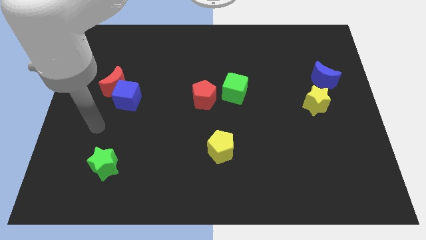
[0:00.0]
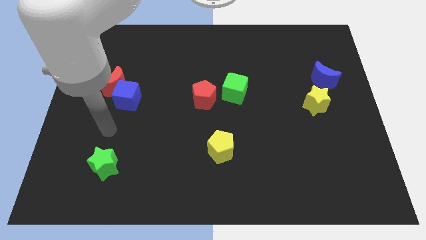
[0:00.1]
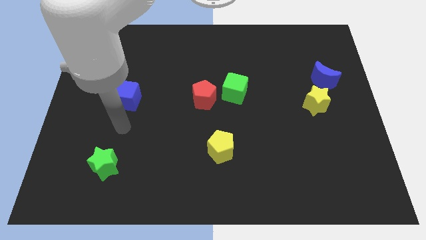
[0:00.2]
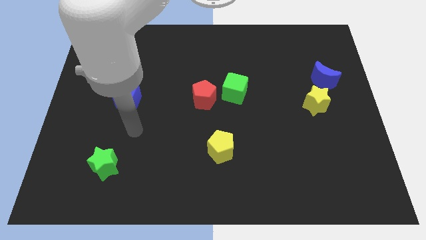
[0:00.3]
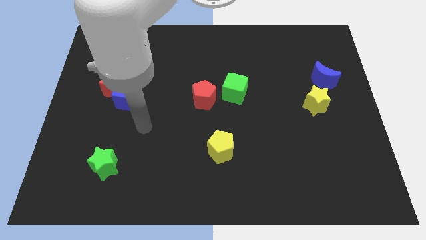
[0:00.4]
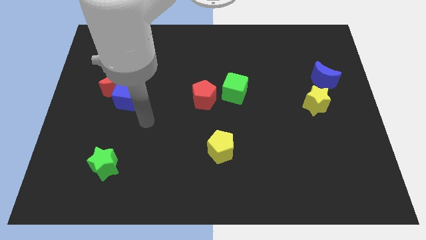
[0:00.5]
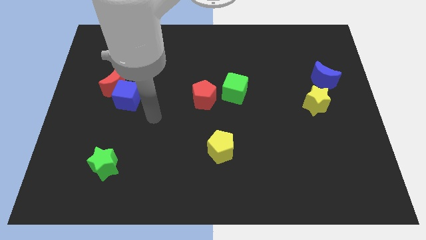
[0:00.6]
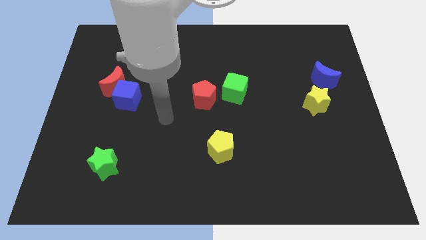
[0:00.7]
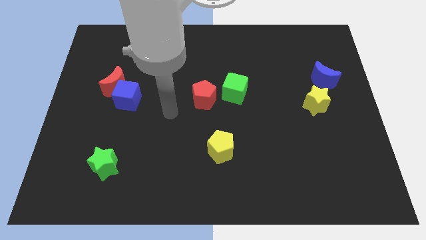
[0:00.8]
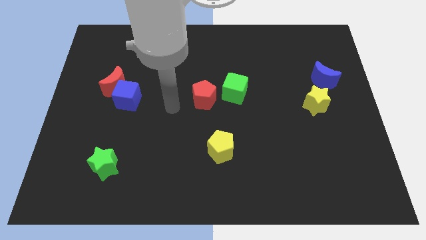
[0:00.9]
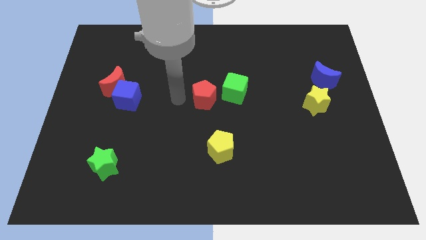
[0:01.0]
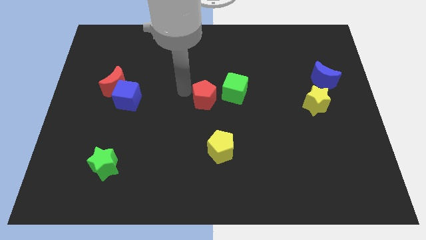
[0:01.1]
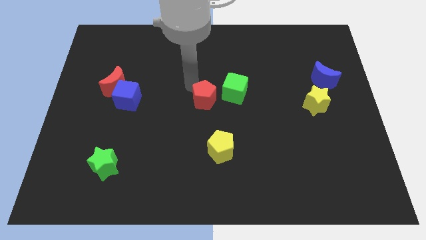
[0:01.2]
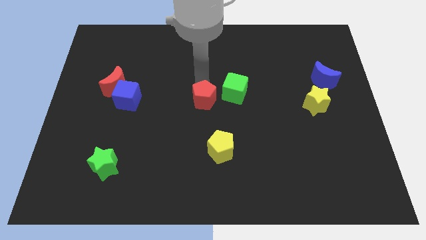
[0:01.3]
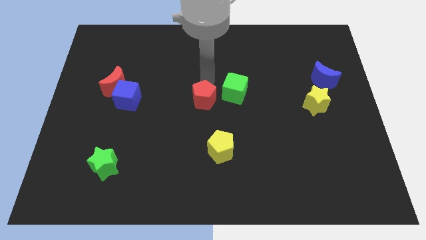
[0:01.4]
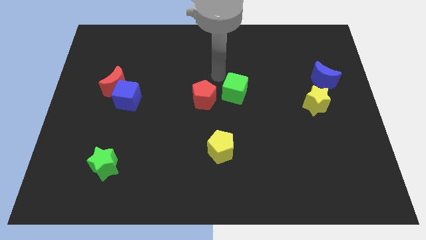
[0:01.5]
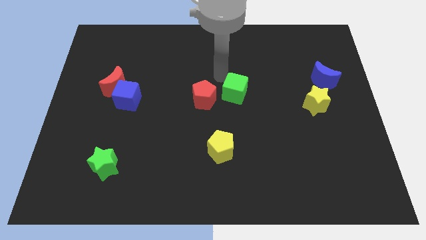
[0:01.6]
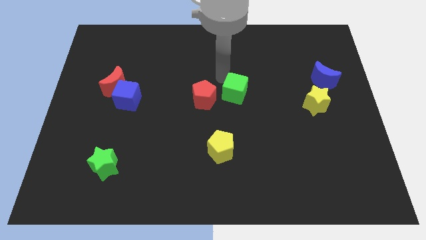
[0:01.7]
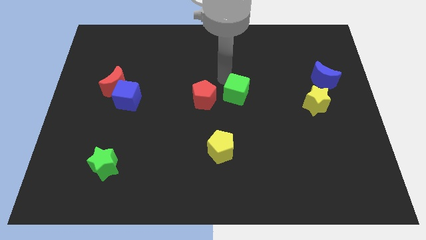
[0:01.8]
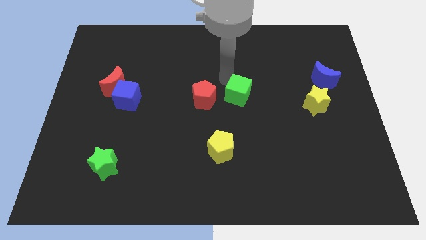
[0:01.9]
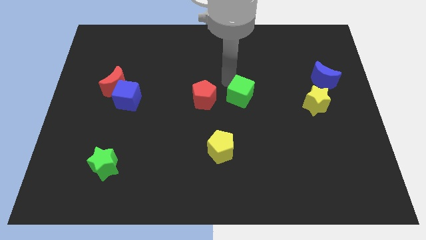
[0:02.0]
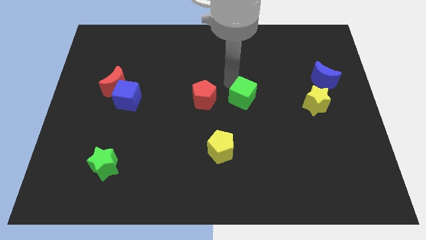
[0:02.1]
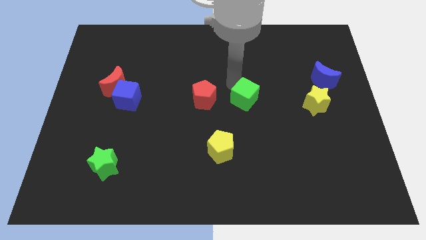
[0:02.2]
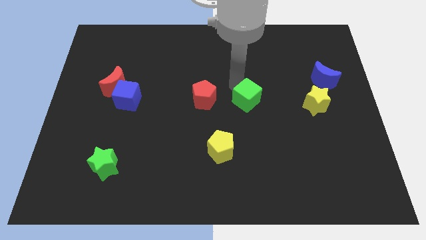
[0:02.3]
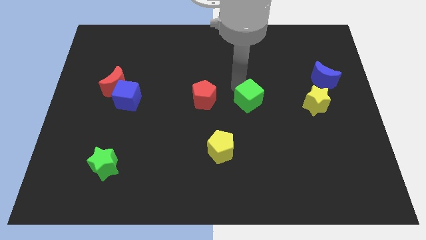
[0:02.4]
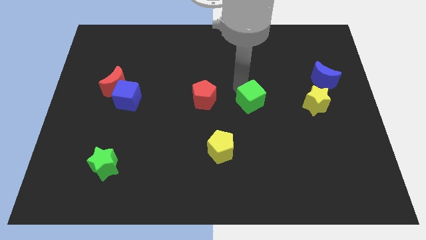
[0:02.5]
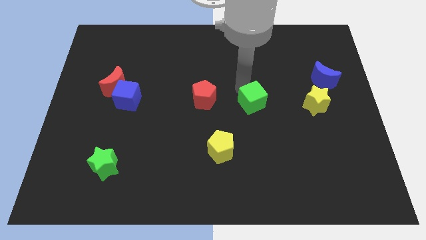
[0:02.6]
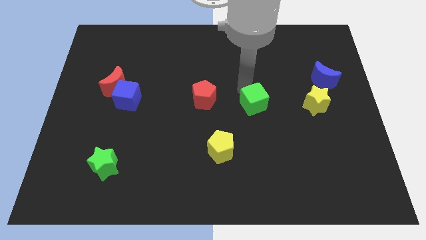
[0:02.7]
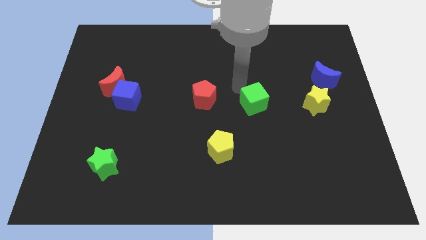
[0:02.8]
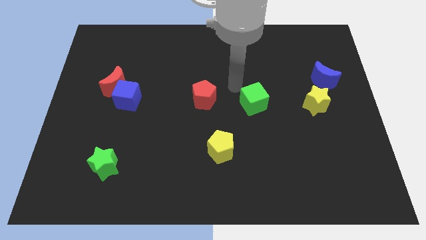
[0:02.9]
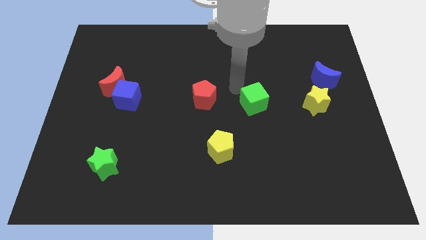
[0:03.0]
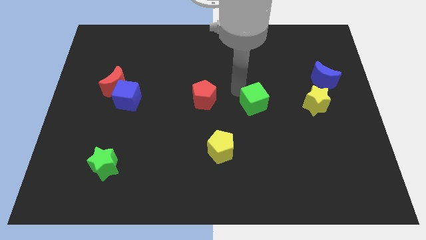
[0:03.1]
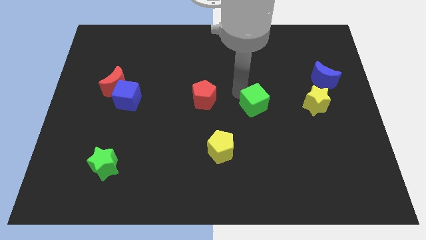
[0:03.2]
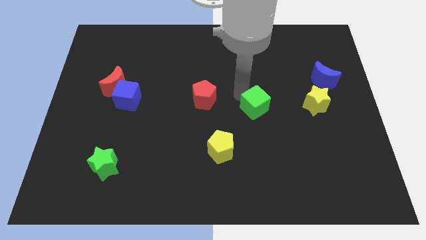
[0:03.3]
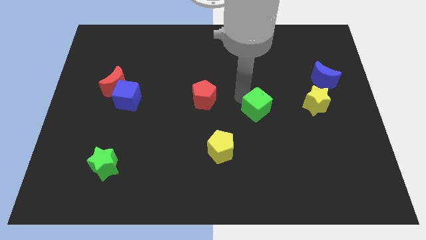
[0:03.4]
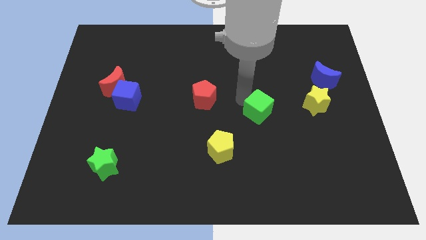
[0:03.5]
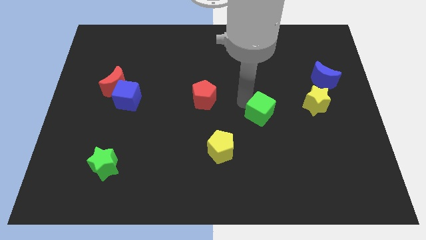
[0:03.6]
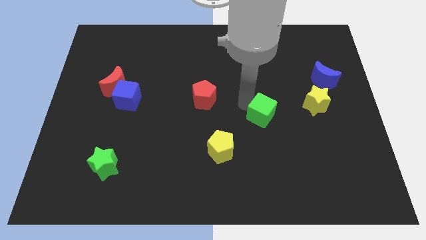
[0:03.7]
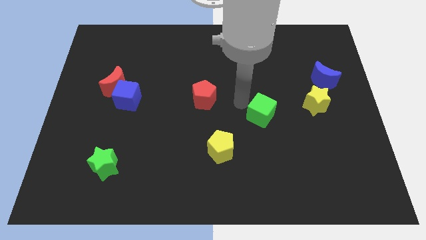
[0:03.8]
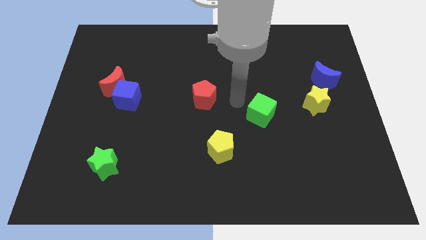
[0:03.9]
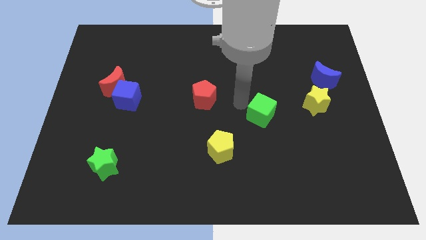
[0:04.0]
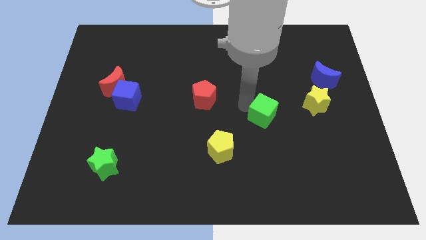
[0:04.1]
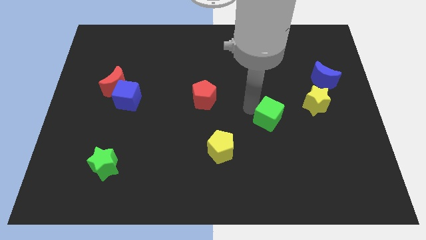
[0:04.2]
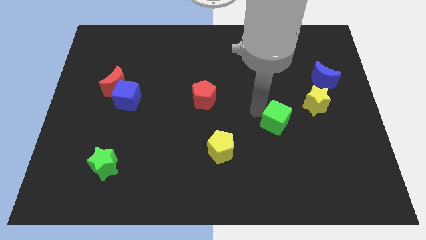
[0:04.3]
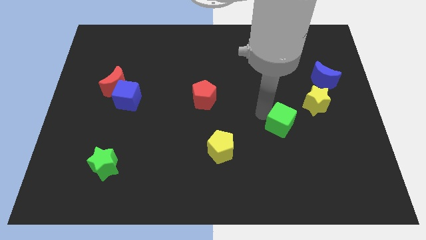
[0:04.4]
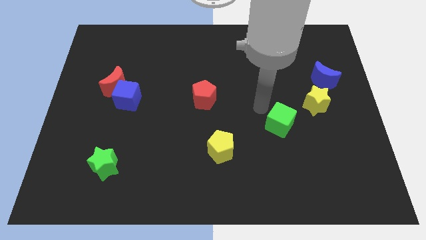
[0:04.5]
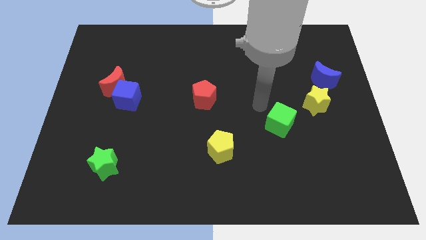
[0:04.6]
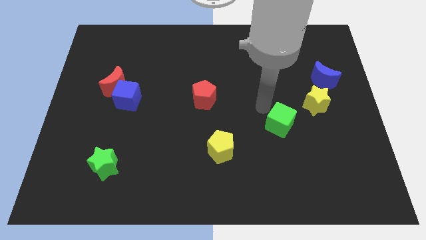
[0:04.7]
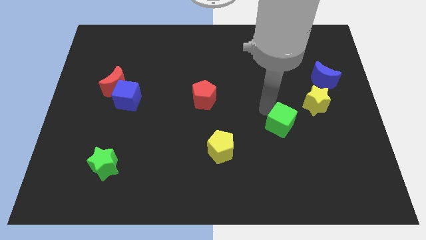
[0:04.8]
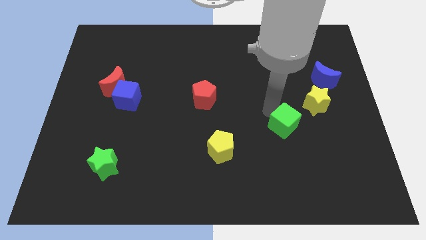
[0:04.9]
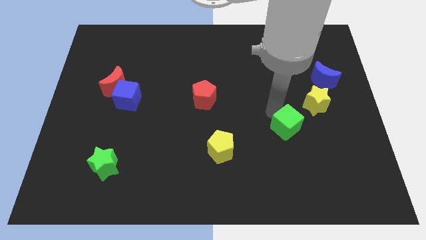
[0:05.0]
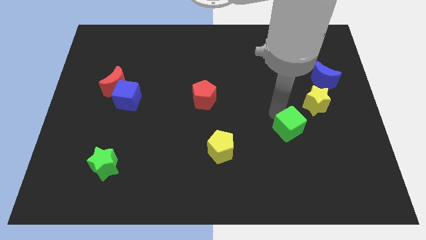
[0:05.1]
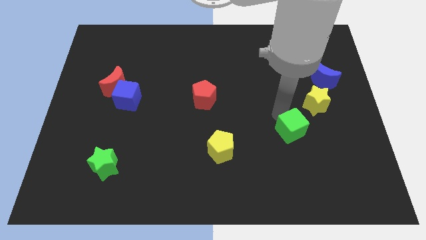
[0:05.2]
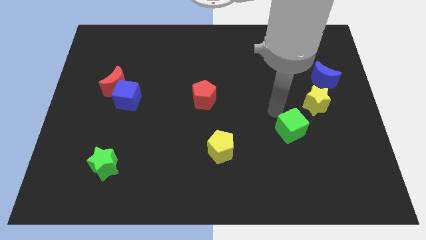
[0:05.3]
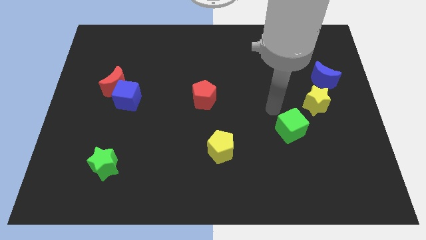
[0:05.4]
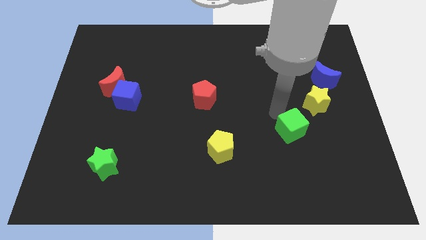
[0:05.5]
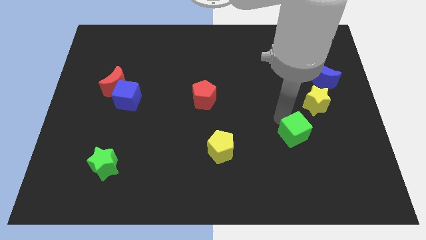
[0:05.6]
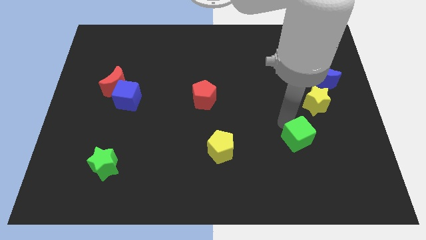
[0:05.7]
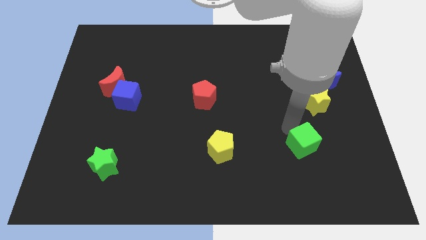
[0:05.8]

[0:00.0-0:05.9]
push the green cube diagonally down and right

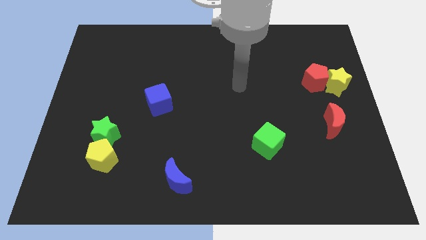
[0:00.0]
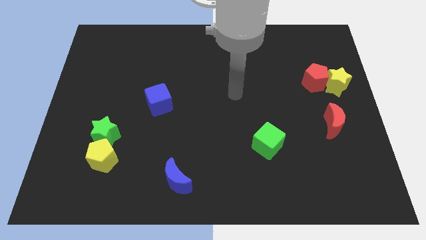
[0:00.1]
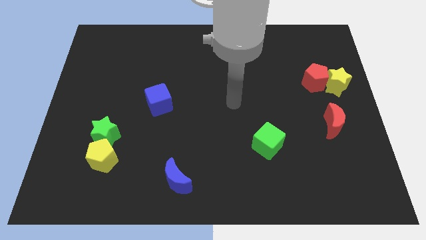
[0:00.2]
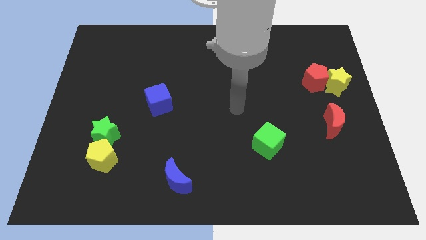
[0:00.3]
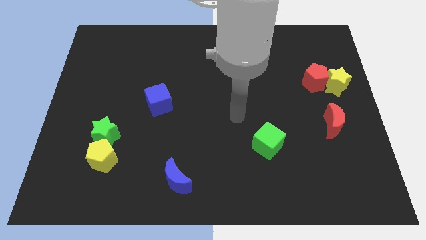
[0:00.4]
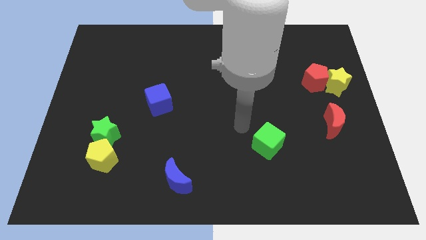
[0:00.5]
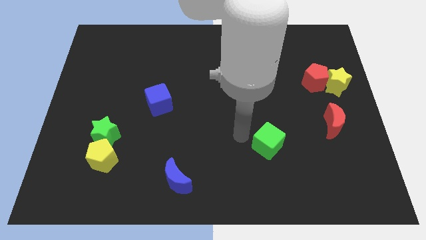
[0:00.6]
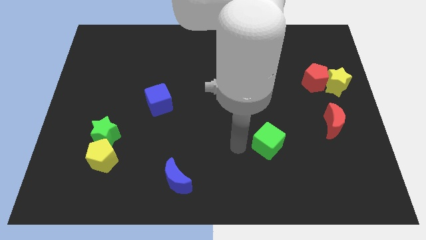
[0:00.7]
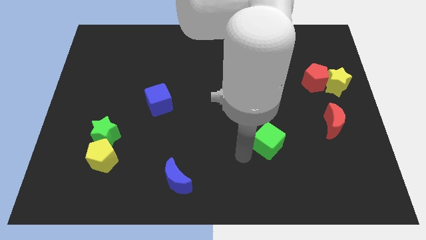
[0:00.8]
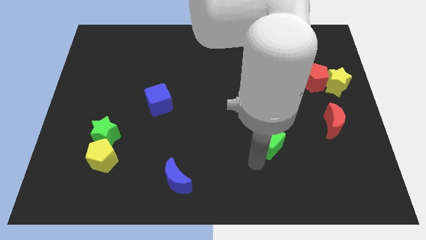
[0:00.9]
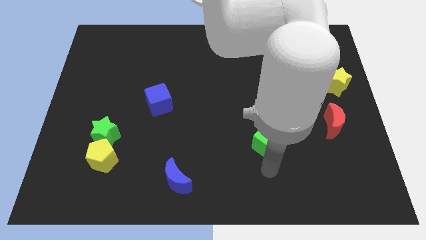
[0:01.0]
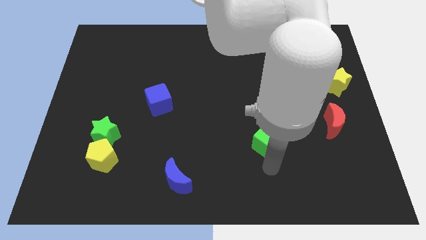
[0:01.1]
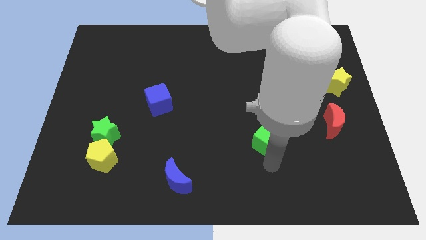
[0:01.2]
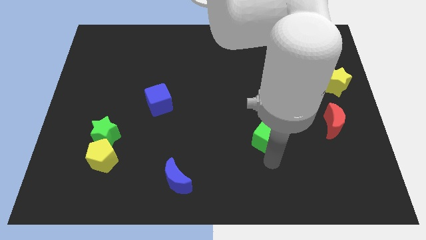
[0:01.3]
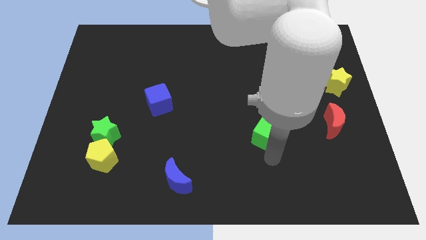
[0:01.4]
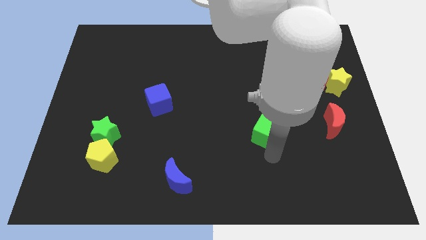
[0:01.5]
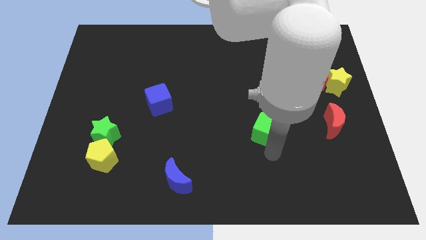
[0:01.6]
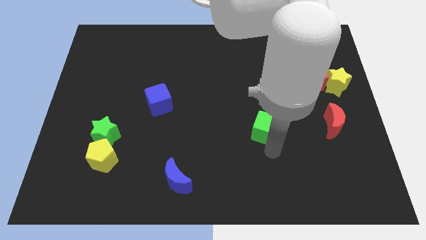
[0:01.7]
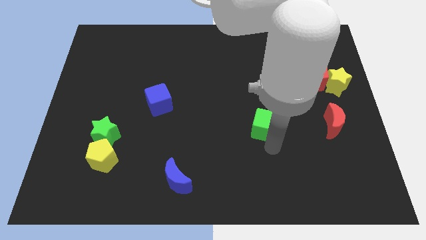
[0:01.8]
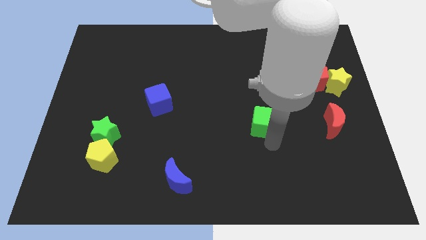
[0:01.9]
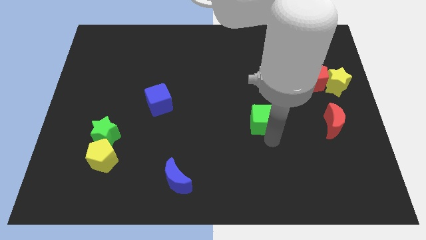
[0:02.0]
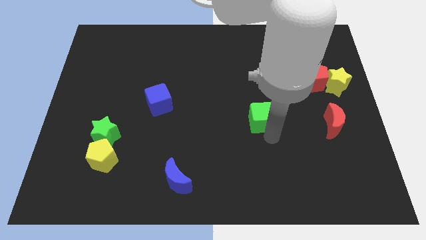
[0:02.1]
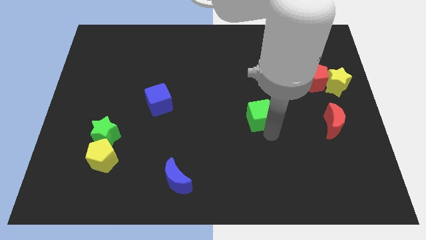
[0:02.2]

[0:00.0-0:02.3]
move the green cube a little upwards
